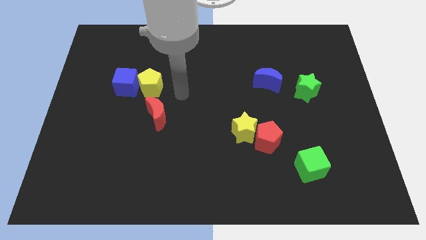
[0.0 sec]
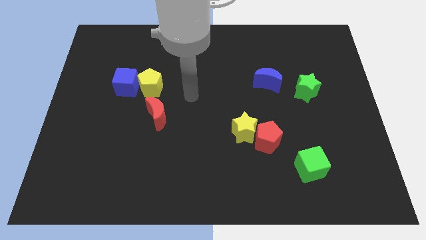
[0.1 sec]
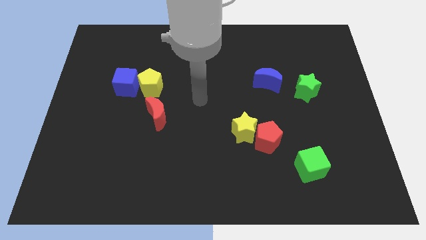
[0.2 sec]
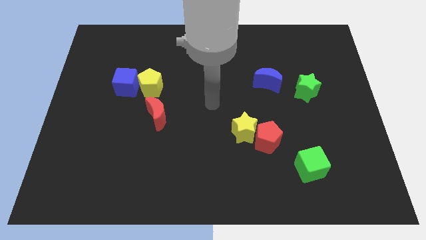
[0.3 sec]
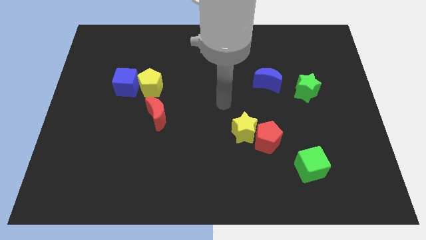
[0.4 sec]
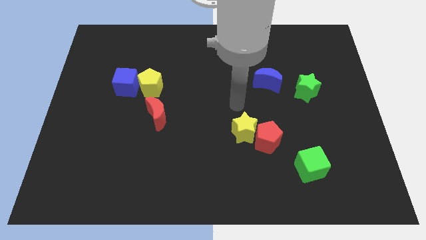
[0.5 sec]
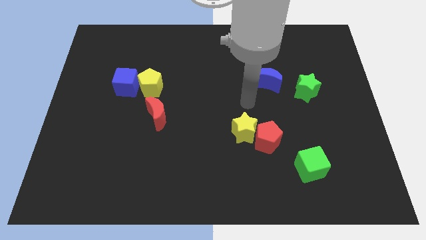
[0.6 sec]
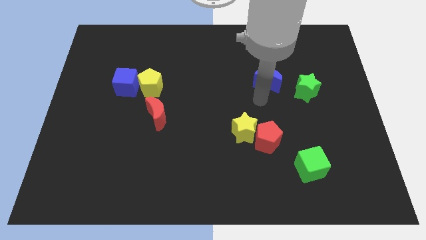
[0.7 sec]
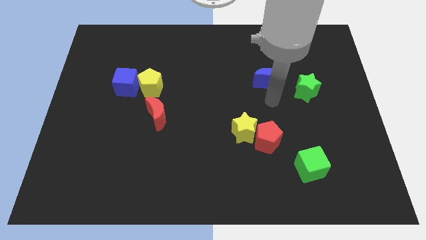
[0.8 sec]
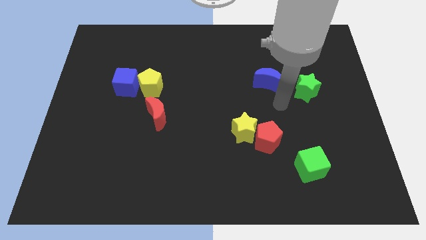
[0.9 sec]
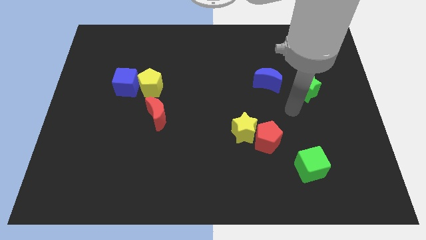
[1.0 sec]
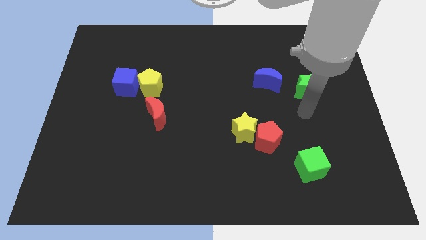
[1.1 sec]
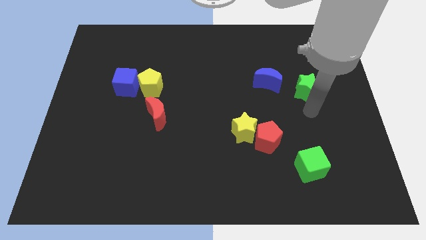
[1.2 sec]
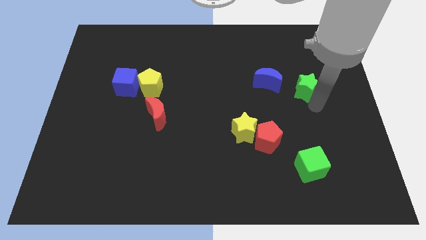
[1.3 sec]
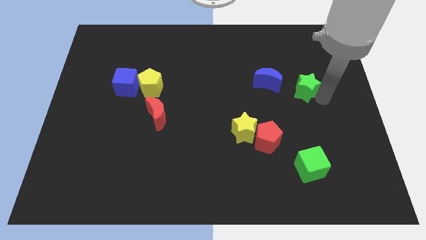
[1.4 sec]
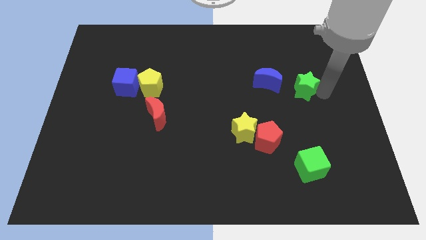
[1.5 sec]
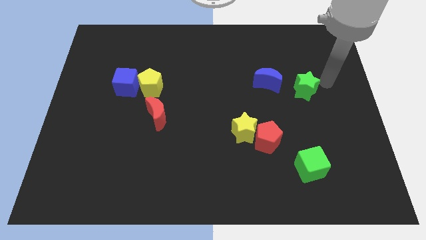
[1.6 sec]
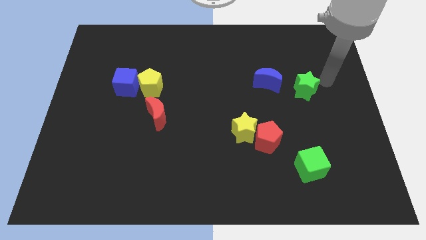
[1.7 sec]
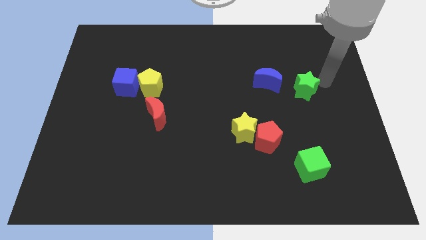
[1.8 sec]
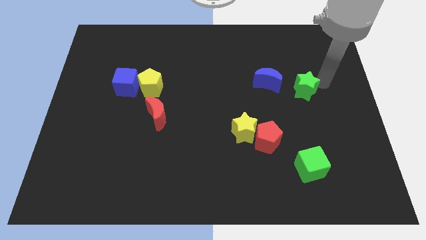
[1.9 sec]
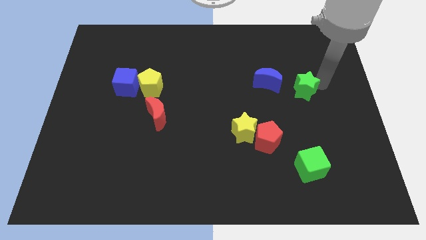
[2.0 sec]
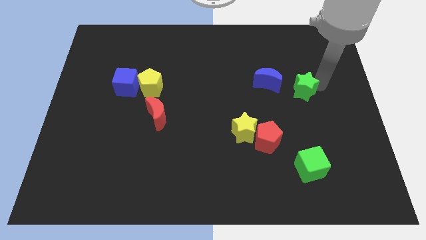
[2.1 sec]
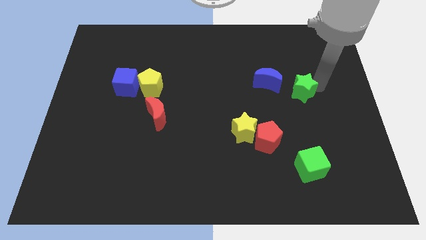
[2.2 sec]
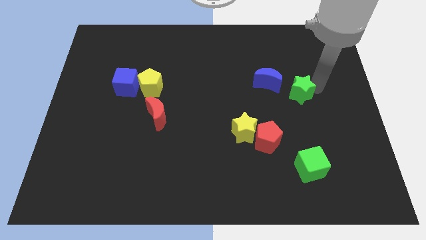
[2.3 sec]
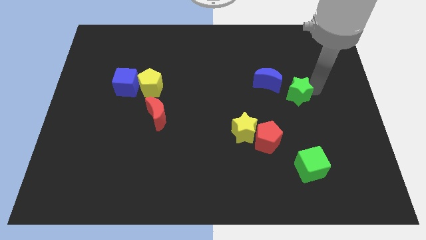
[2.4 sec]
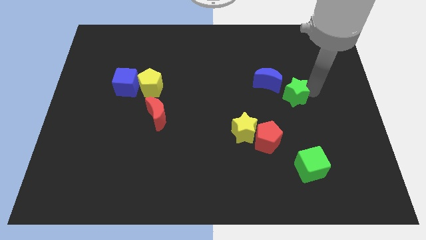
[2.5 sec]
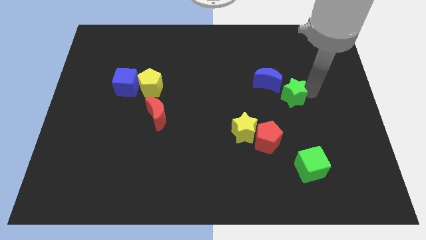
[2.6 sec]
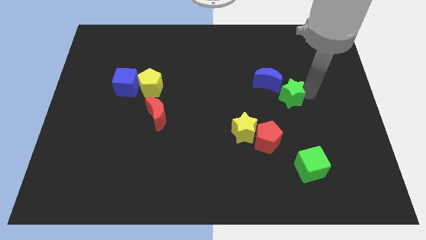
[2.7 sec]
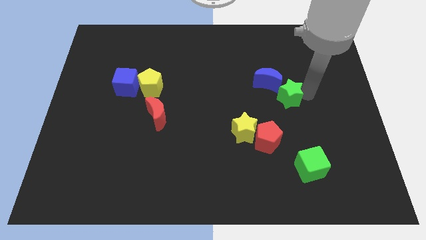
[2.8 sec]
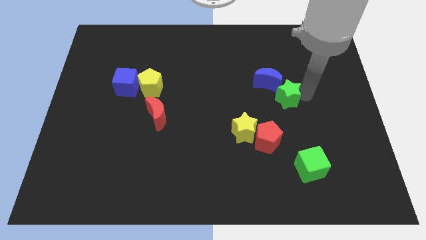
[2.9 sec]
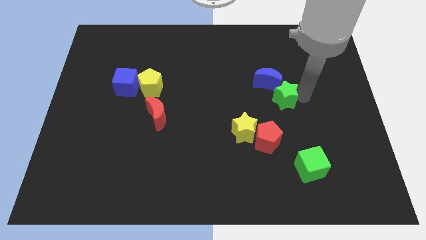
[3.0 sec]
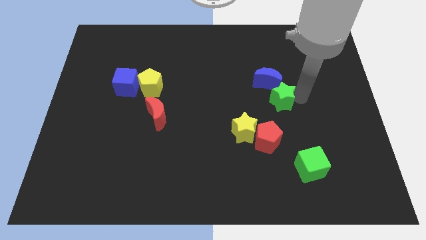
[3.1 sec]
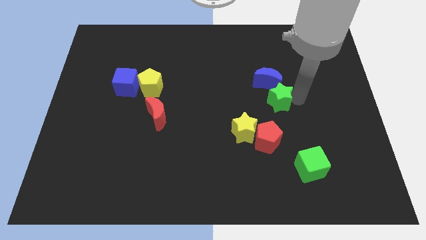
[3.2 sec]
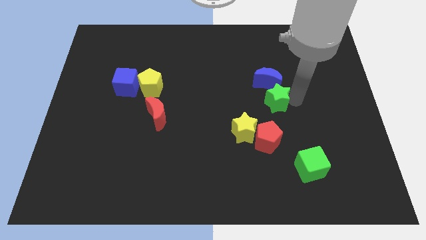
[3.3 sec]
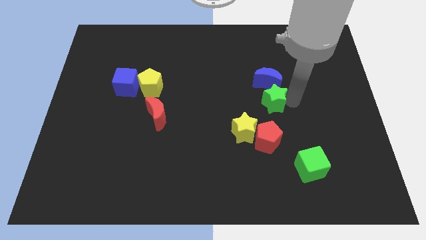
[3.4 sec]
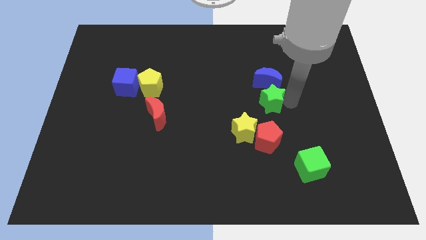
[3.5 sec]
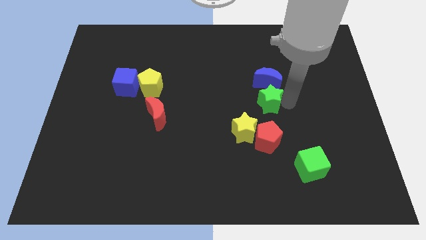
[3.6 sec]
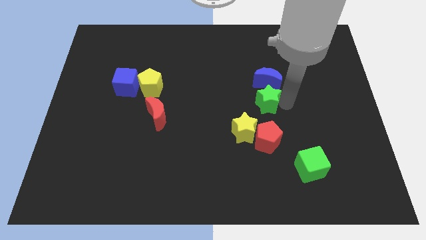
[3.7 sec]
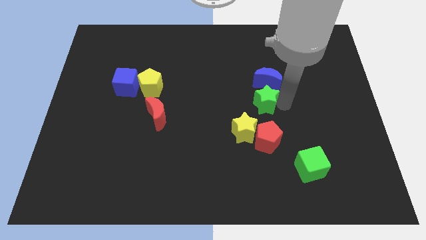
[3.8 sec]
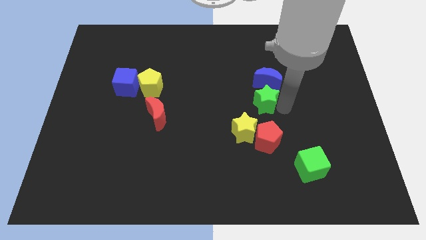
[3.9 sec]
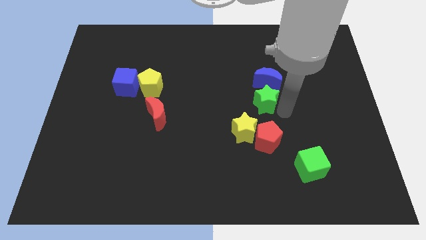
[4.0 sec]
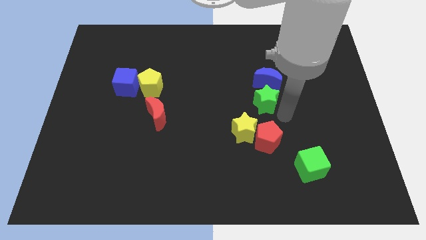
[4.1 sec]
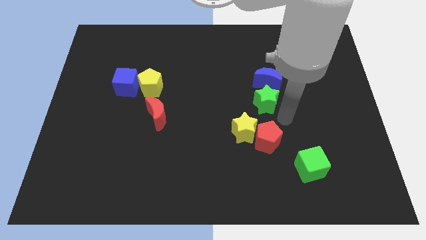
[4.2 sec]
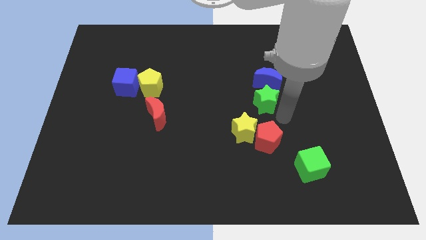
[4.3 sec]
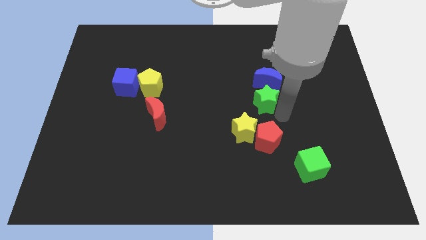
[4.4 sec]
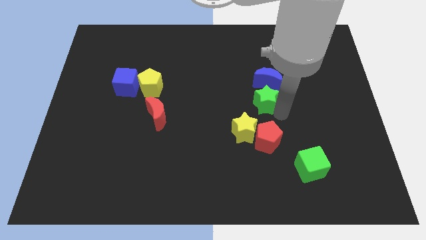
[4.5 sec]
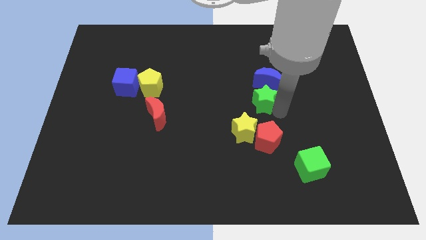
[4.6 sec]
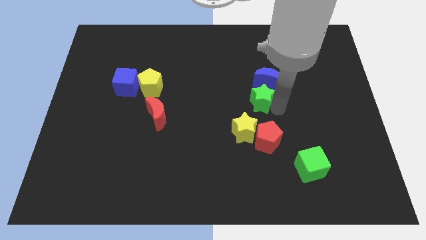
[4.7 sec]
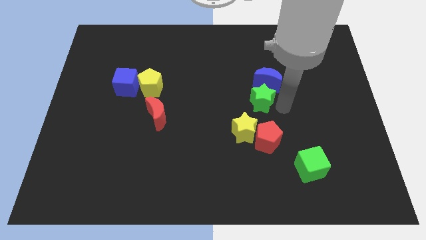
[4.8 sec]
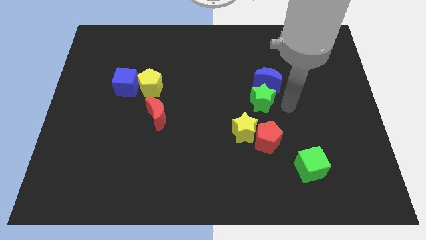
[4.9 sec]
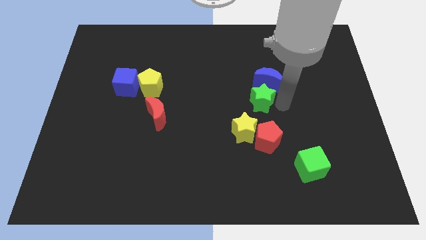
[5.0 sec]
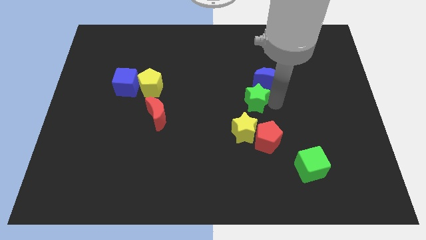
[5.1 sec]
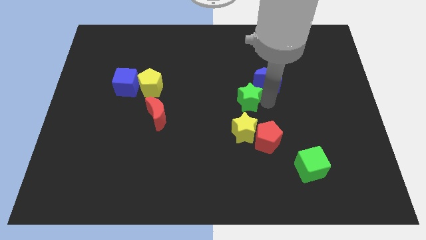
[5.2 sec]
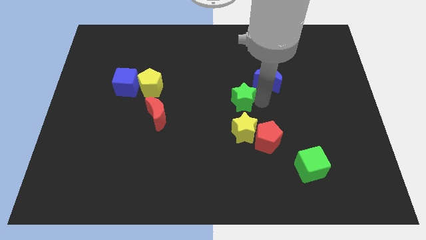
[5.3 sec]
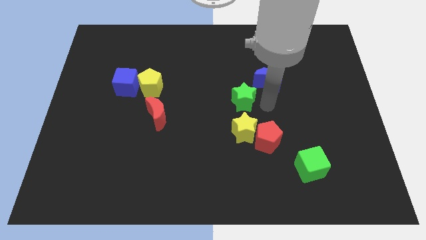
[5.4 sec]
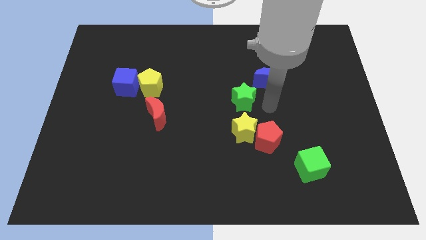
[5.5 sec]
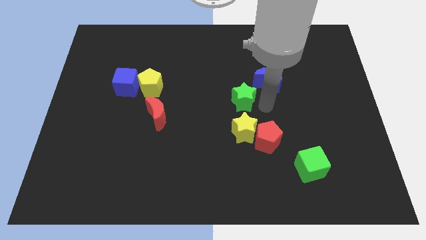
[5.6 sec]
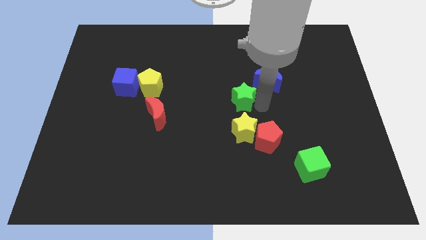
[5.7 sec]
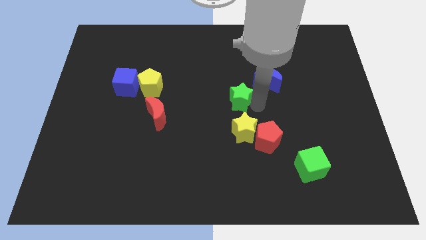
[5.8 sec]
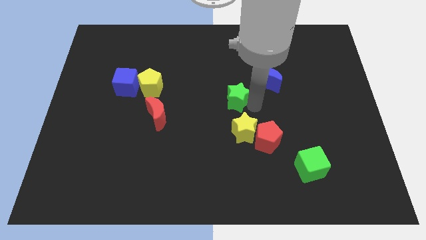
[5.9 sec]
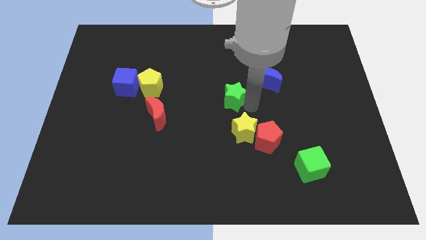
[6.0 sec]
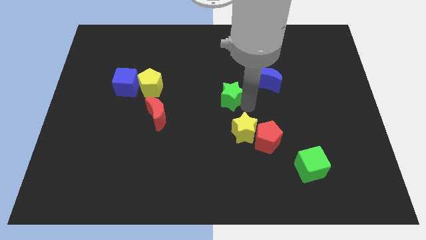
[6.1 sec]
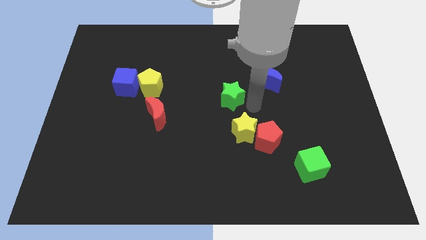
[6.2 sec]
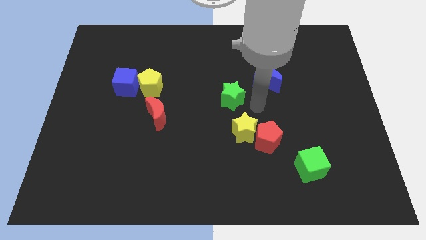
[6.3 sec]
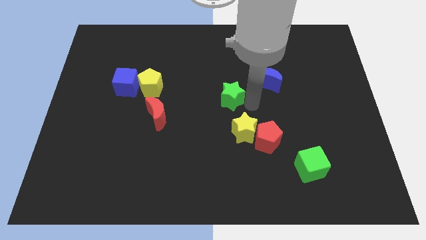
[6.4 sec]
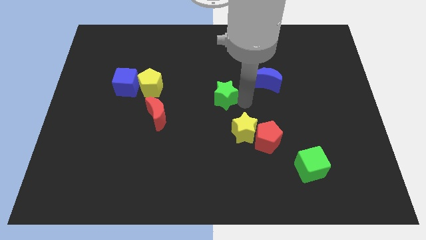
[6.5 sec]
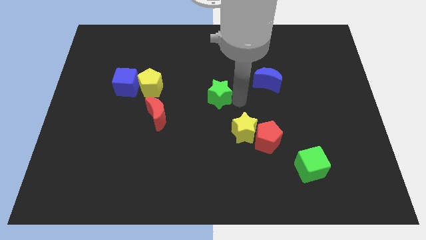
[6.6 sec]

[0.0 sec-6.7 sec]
push the green star to the left

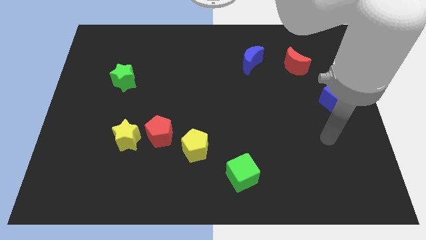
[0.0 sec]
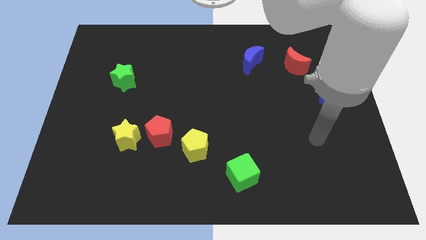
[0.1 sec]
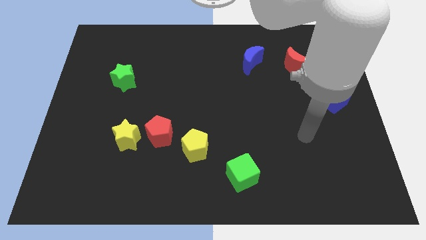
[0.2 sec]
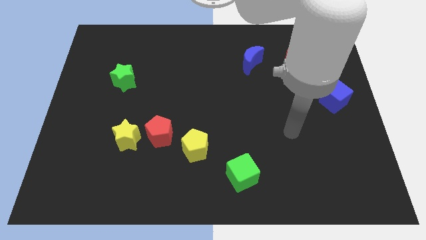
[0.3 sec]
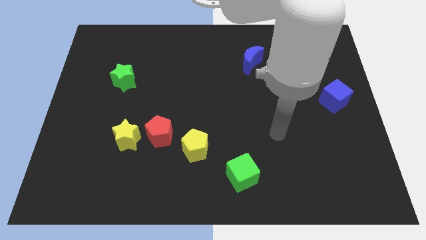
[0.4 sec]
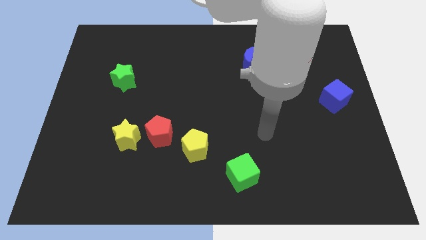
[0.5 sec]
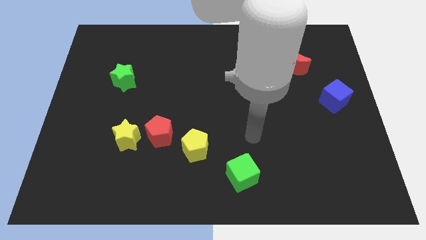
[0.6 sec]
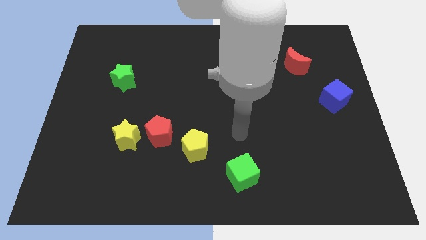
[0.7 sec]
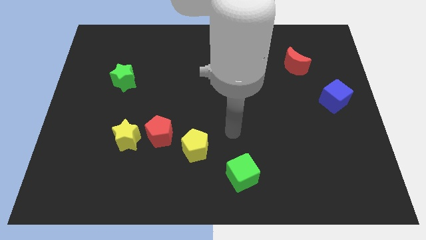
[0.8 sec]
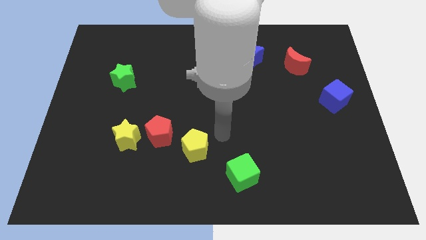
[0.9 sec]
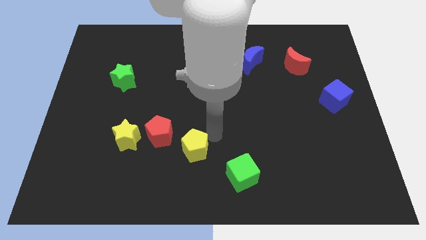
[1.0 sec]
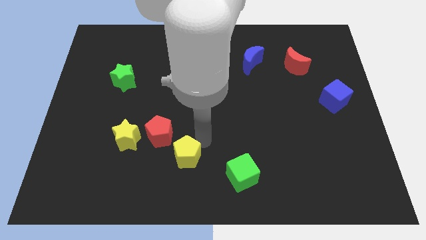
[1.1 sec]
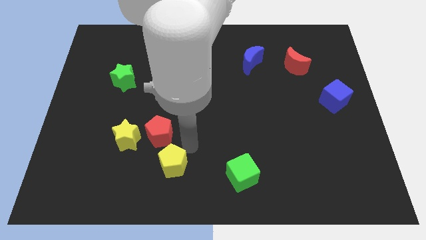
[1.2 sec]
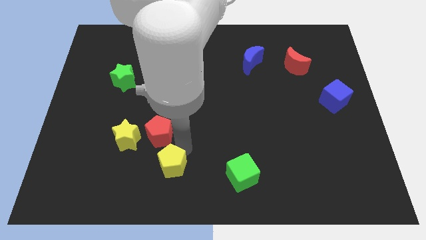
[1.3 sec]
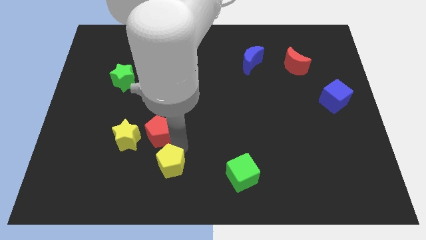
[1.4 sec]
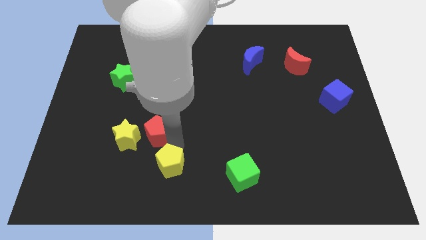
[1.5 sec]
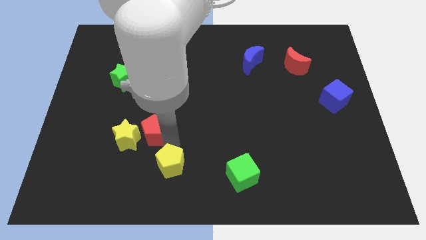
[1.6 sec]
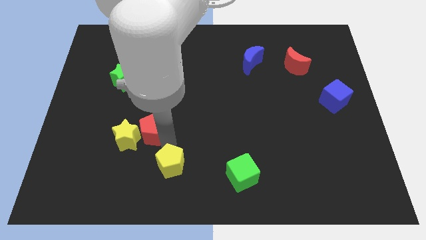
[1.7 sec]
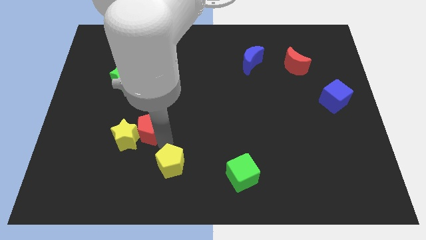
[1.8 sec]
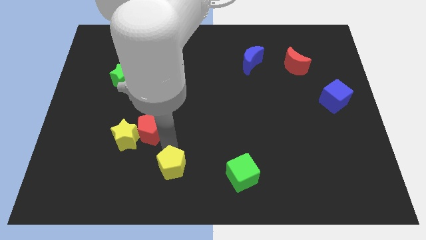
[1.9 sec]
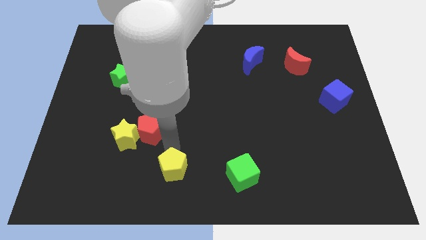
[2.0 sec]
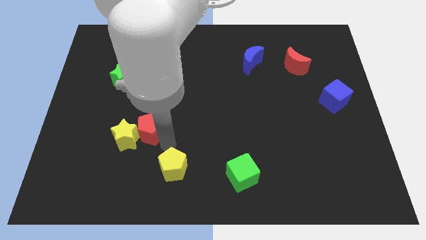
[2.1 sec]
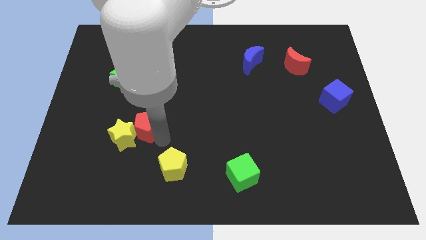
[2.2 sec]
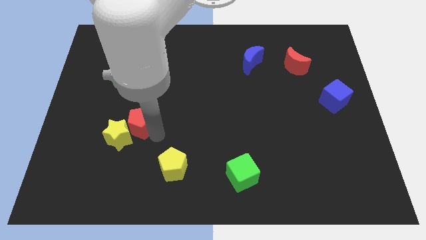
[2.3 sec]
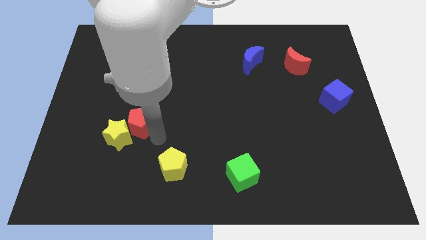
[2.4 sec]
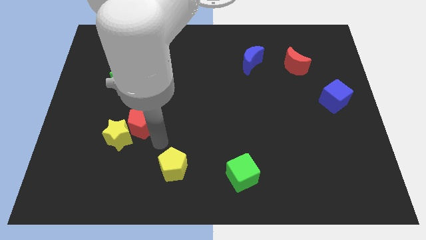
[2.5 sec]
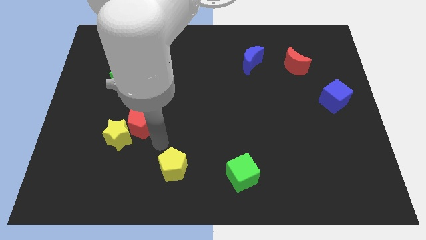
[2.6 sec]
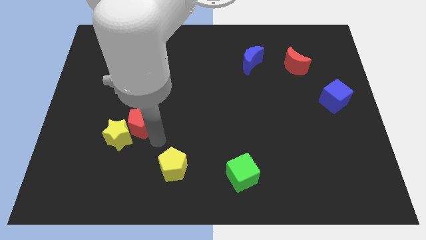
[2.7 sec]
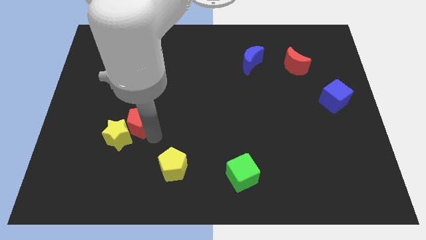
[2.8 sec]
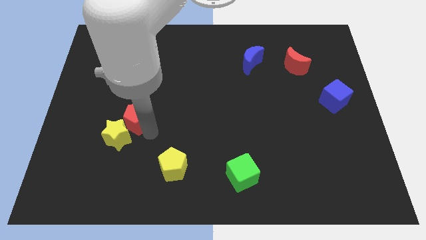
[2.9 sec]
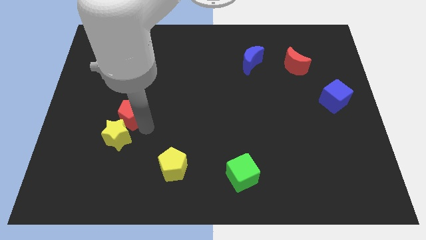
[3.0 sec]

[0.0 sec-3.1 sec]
move the red pentagon a little bit upwards and left
